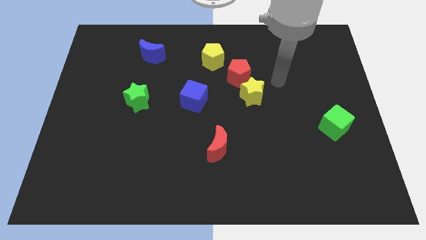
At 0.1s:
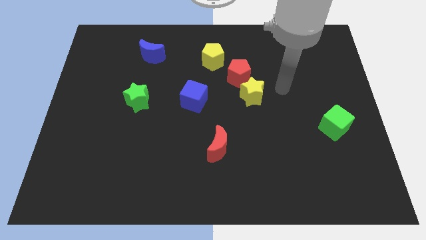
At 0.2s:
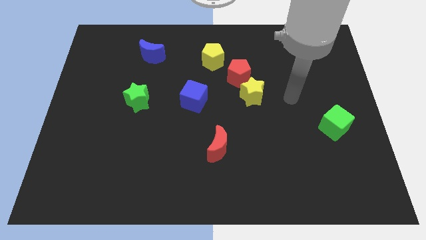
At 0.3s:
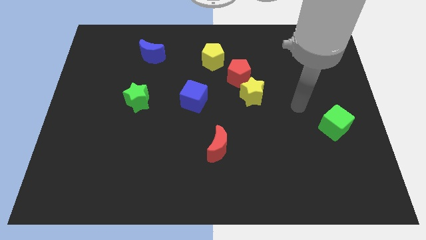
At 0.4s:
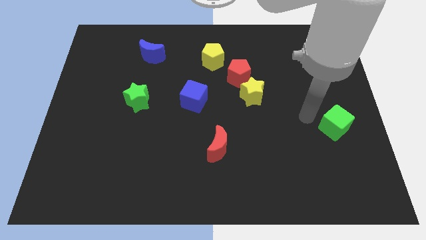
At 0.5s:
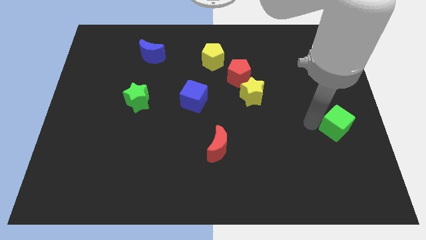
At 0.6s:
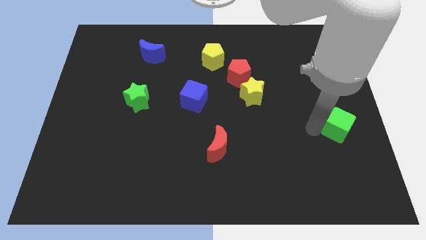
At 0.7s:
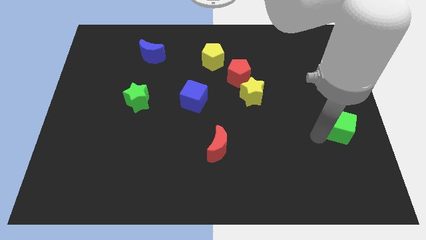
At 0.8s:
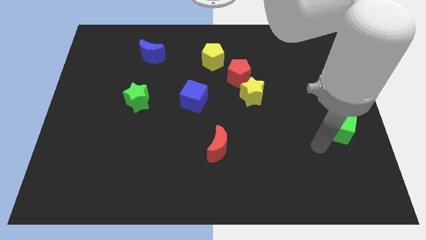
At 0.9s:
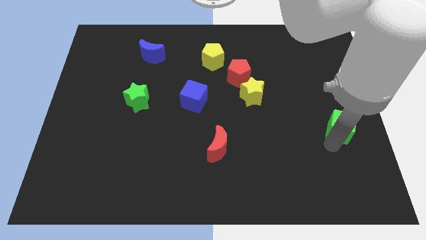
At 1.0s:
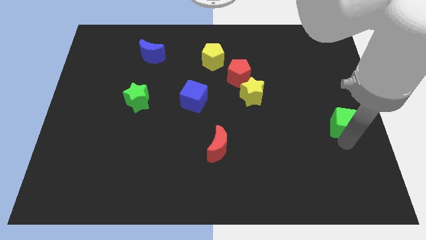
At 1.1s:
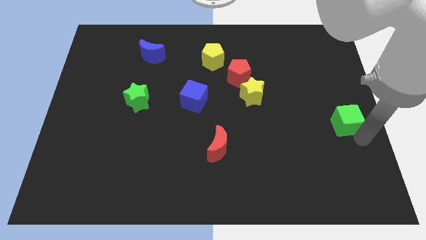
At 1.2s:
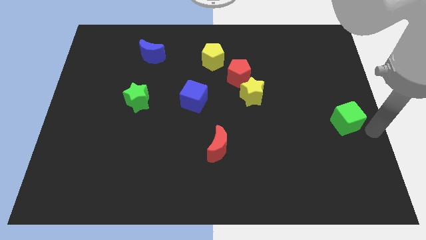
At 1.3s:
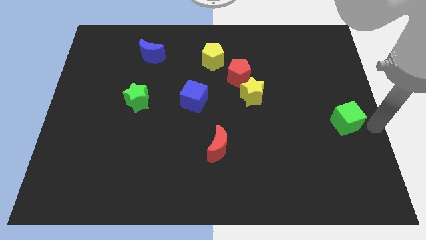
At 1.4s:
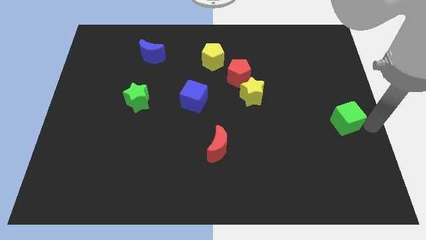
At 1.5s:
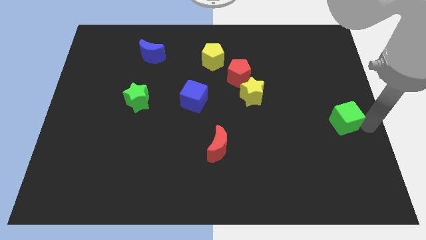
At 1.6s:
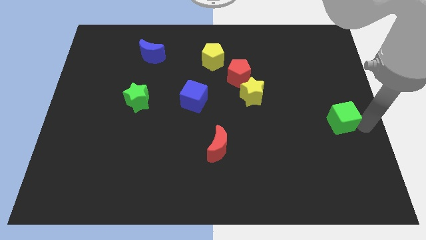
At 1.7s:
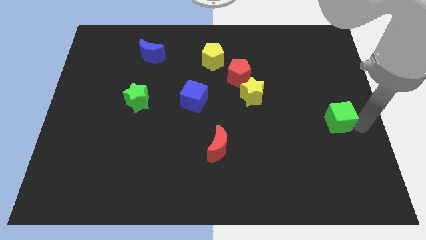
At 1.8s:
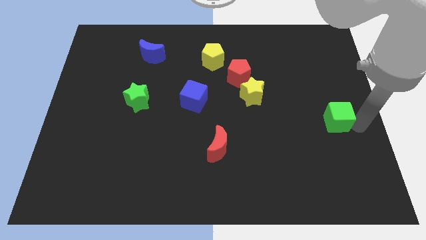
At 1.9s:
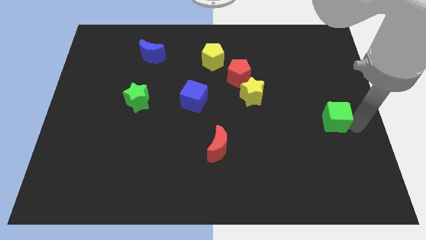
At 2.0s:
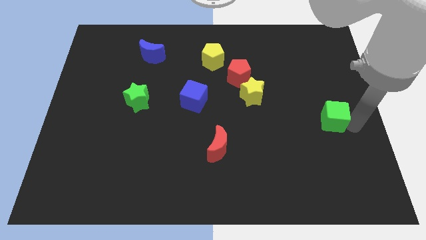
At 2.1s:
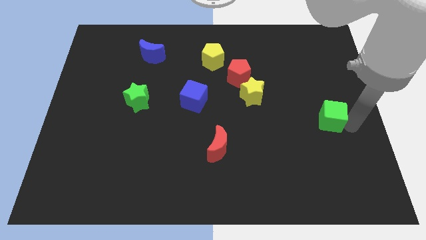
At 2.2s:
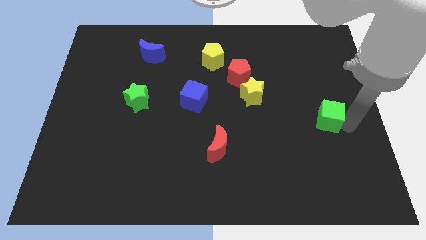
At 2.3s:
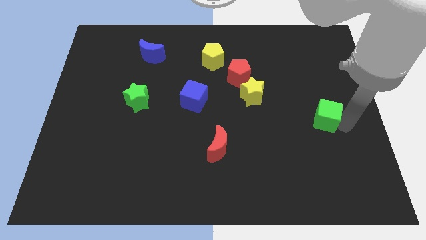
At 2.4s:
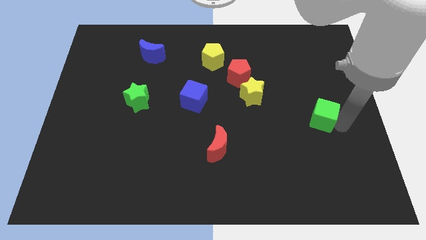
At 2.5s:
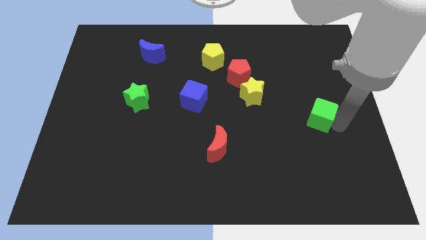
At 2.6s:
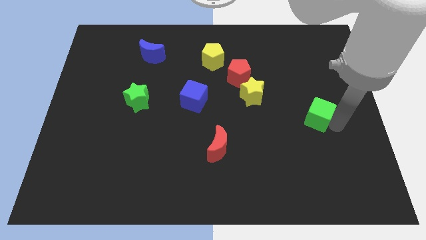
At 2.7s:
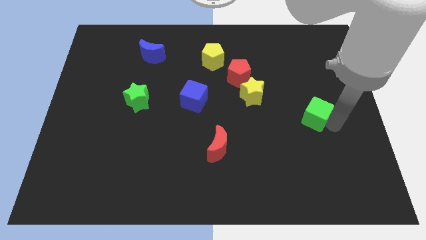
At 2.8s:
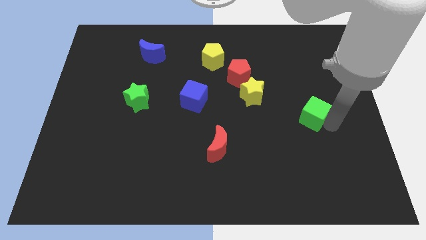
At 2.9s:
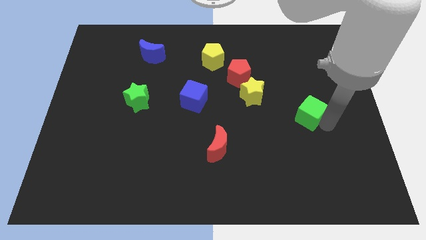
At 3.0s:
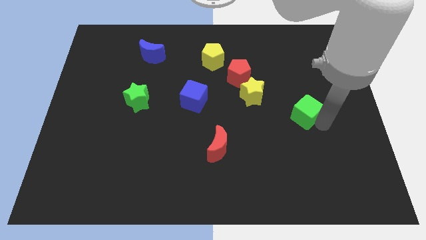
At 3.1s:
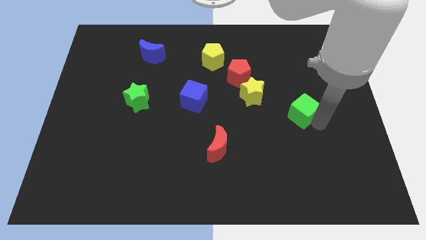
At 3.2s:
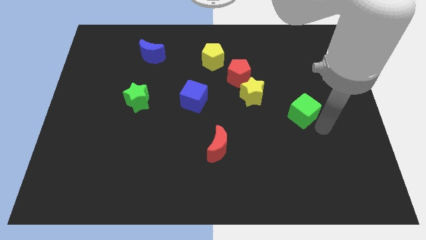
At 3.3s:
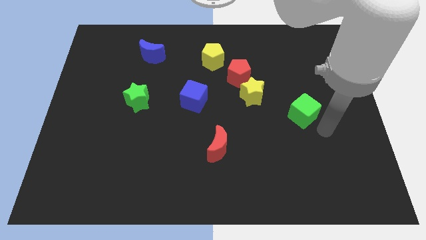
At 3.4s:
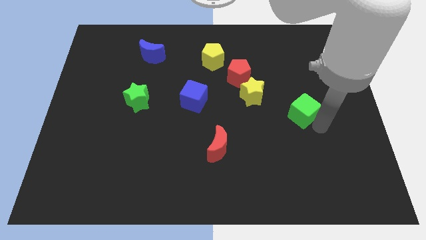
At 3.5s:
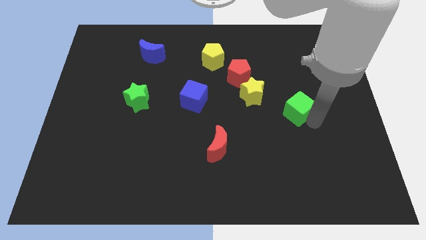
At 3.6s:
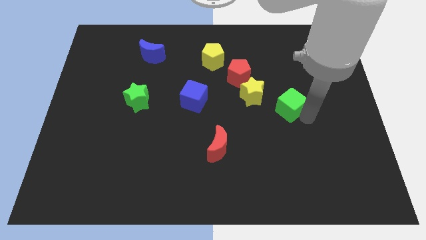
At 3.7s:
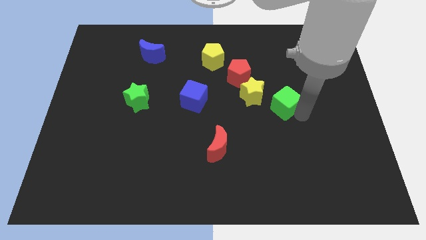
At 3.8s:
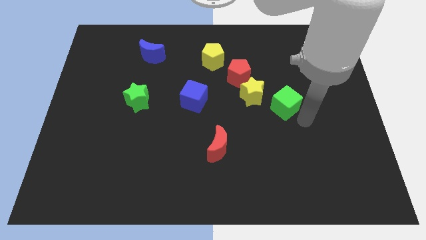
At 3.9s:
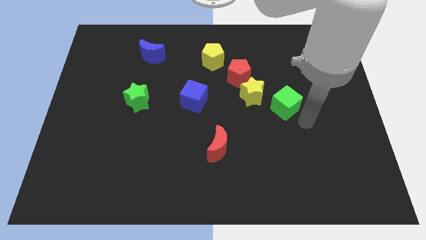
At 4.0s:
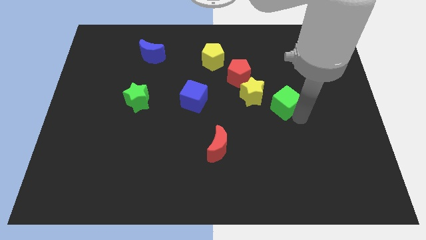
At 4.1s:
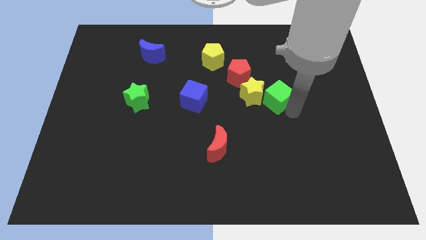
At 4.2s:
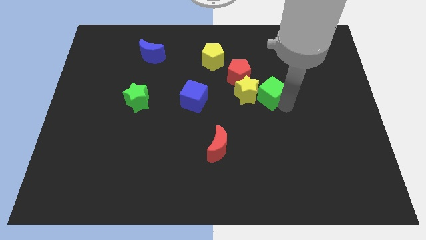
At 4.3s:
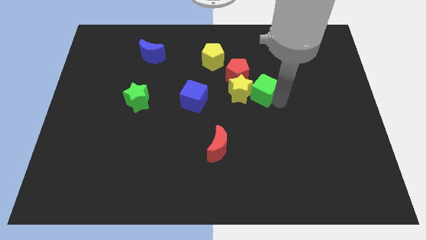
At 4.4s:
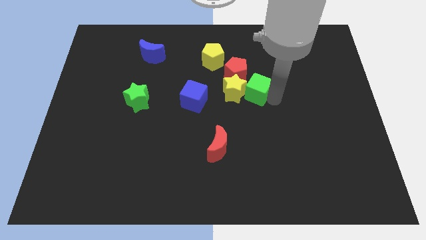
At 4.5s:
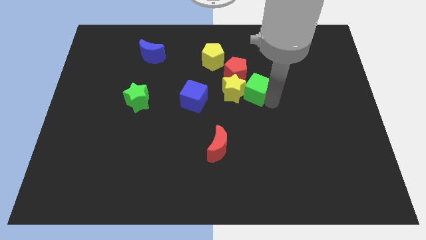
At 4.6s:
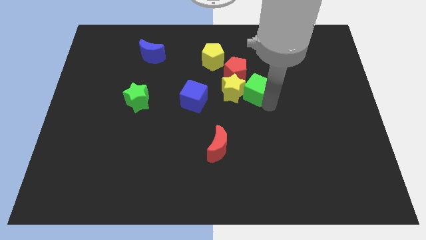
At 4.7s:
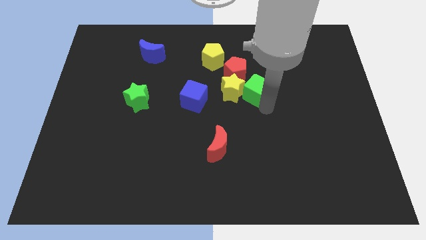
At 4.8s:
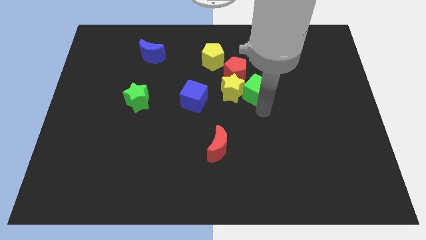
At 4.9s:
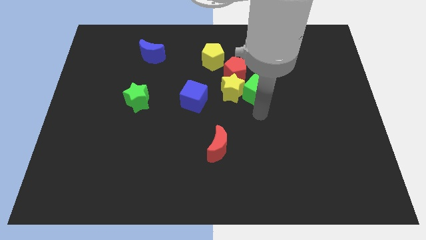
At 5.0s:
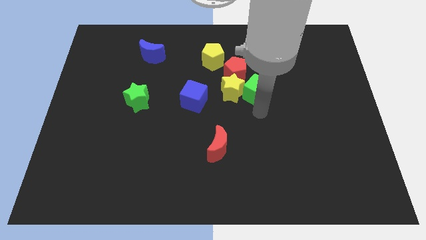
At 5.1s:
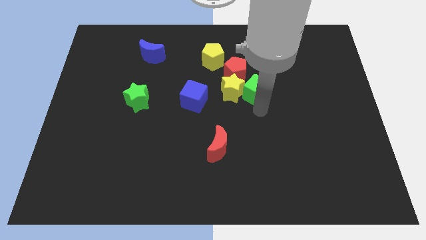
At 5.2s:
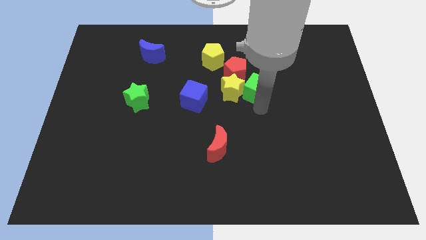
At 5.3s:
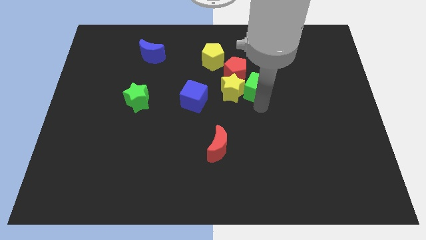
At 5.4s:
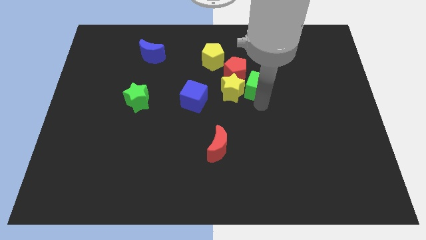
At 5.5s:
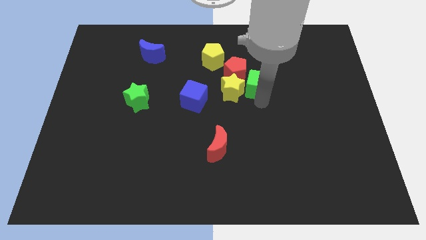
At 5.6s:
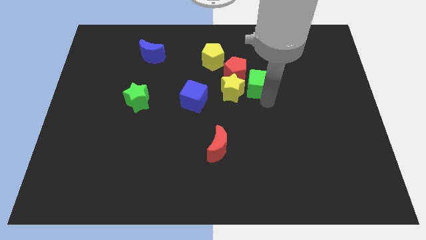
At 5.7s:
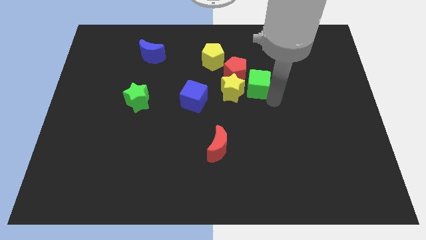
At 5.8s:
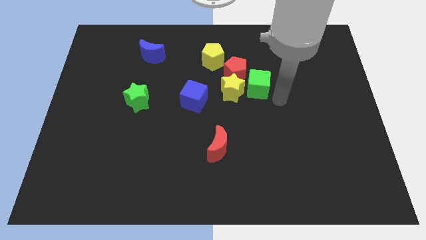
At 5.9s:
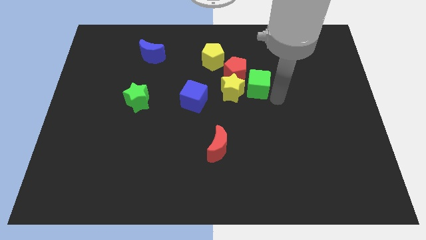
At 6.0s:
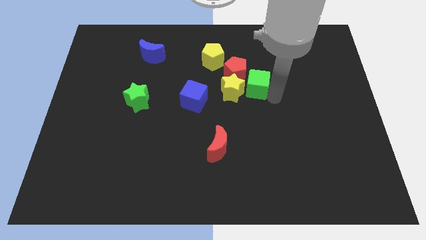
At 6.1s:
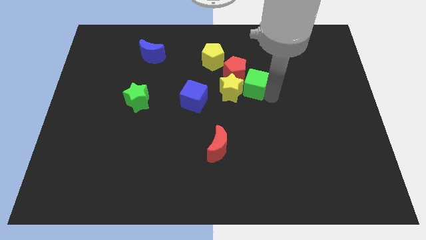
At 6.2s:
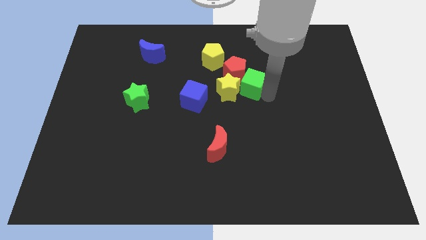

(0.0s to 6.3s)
put the green cube towards the red pentagon

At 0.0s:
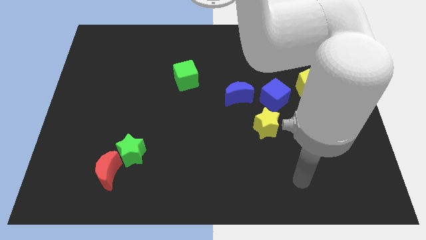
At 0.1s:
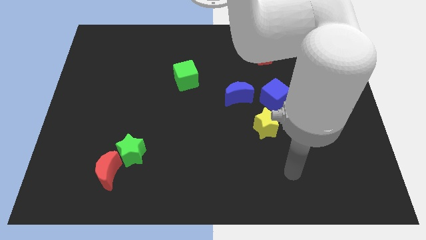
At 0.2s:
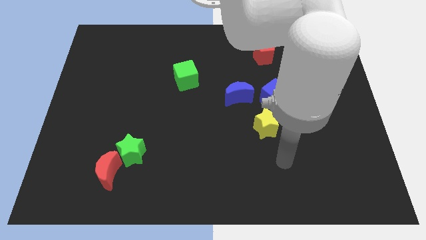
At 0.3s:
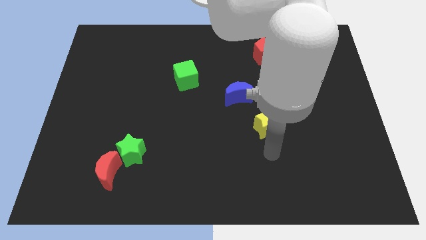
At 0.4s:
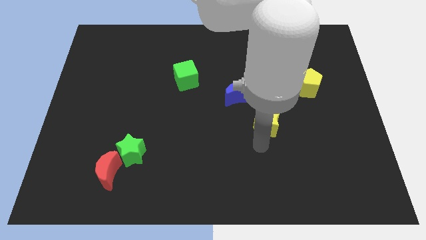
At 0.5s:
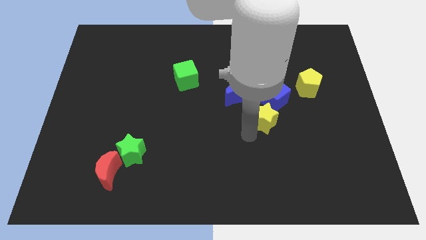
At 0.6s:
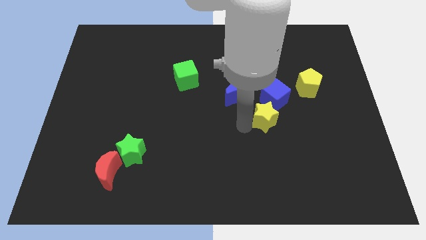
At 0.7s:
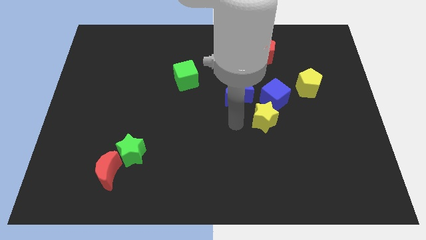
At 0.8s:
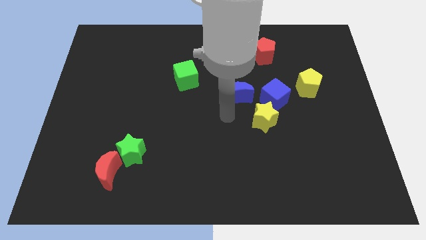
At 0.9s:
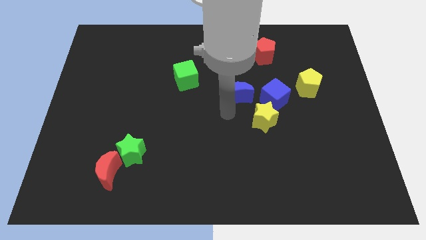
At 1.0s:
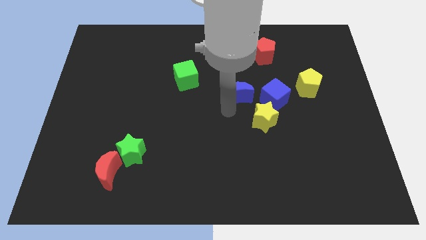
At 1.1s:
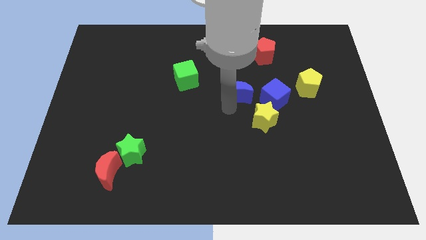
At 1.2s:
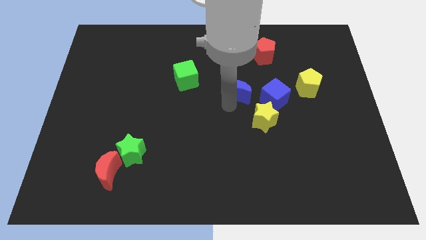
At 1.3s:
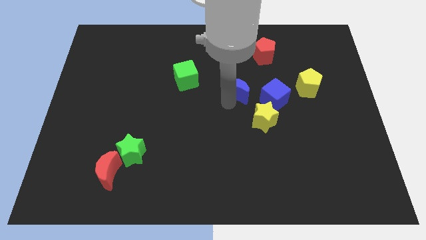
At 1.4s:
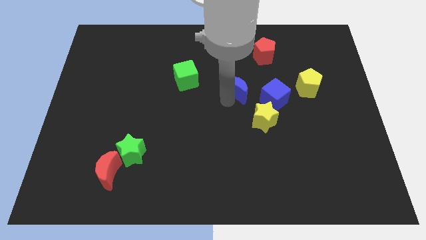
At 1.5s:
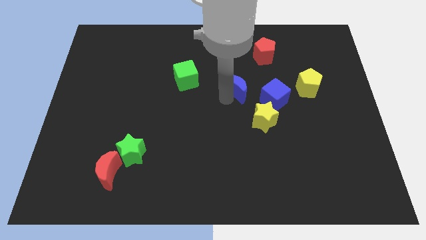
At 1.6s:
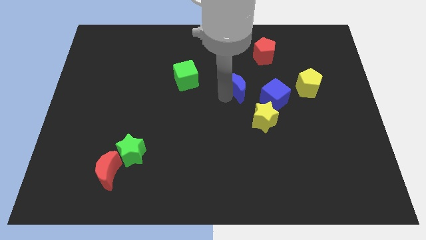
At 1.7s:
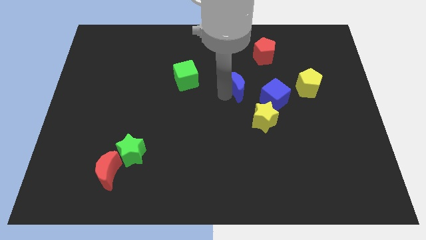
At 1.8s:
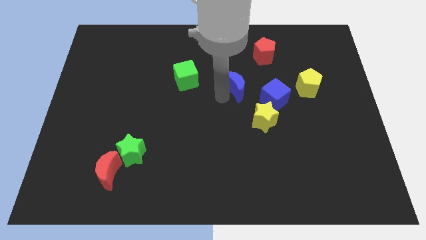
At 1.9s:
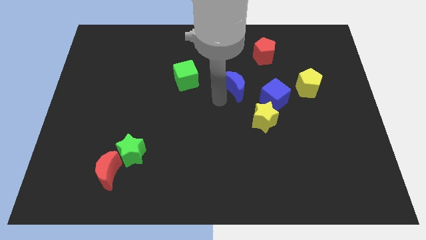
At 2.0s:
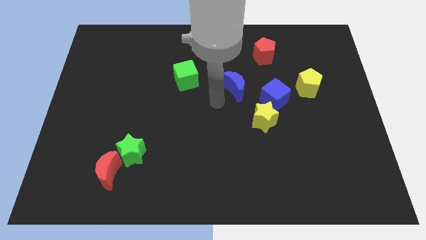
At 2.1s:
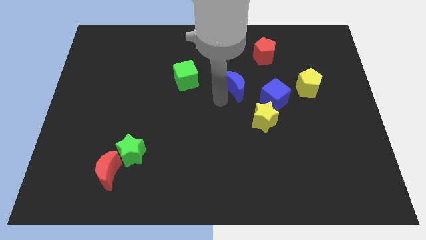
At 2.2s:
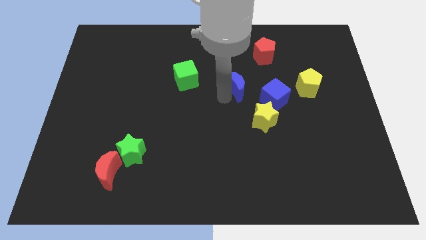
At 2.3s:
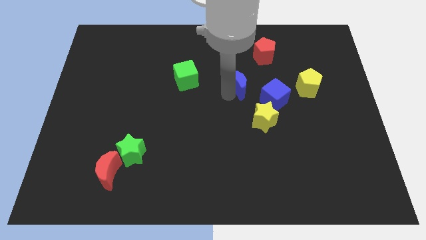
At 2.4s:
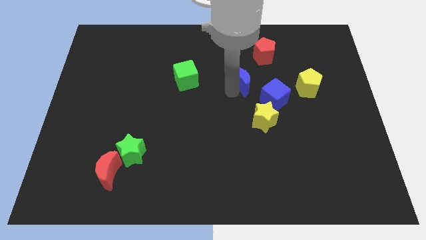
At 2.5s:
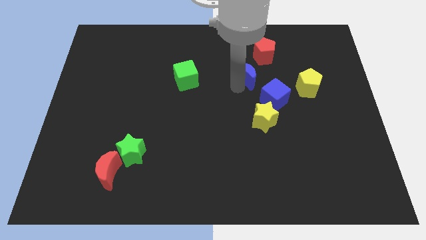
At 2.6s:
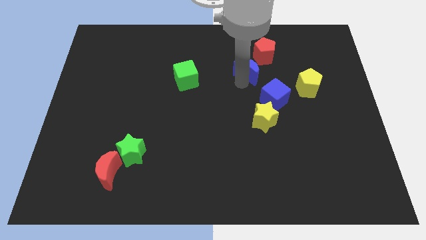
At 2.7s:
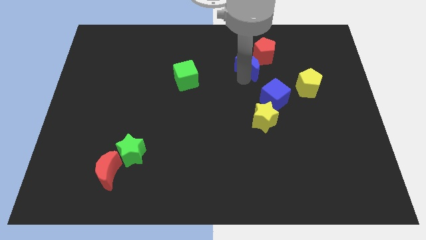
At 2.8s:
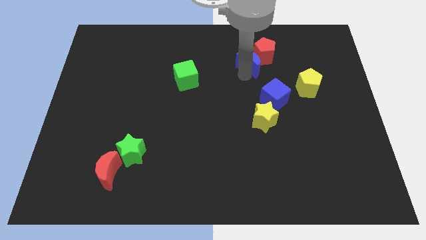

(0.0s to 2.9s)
slide the blue moon next to the red pentagon
